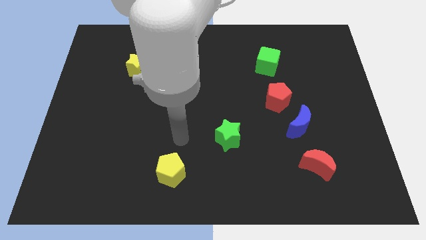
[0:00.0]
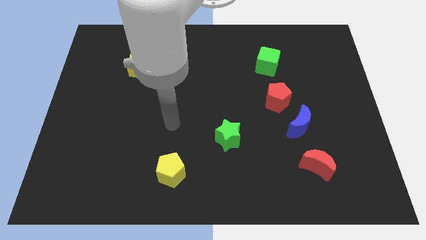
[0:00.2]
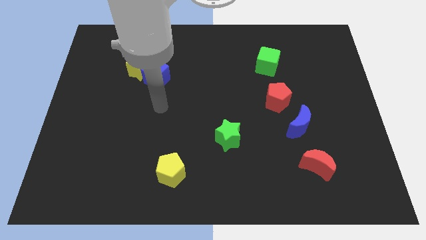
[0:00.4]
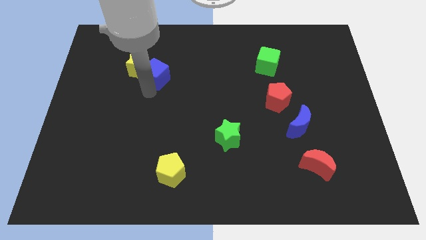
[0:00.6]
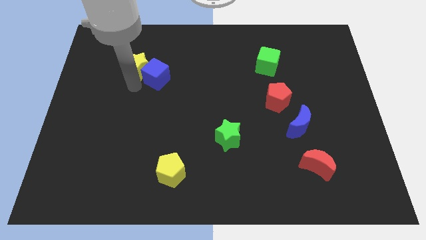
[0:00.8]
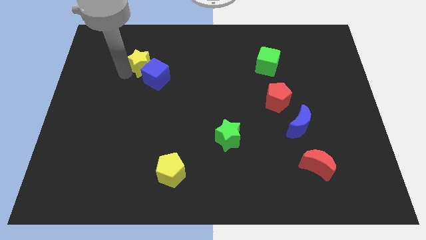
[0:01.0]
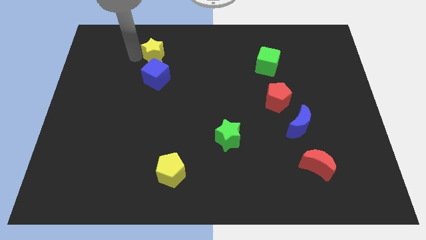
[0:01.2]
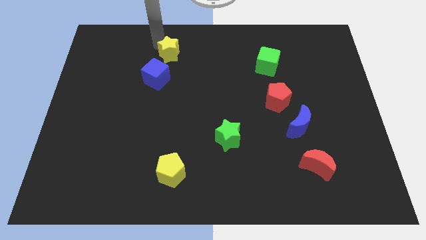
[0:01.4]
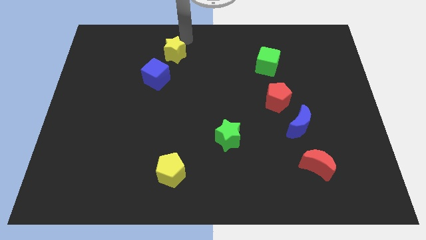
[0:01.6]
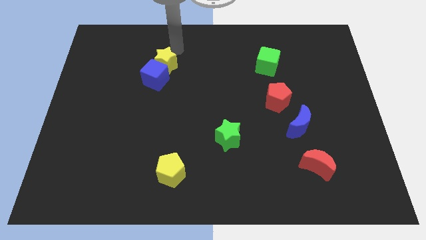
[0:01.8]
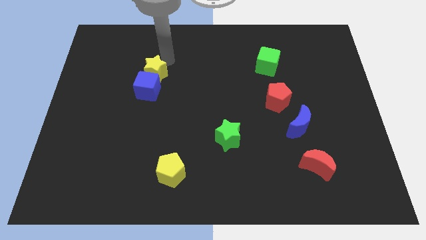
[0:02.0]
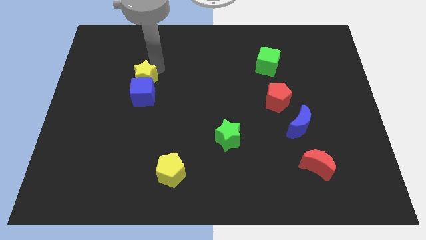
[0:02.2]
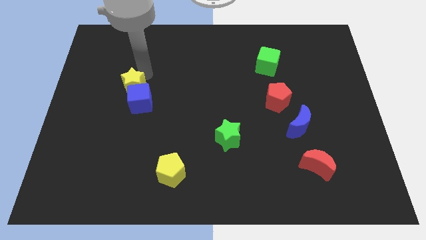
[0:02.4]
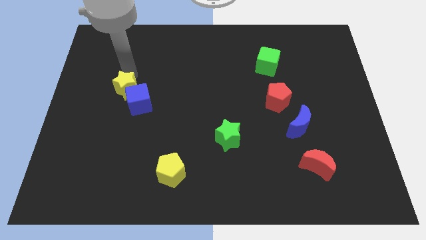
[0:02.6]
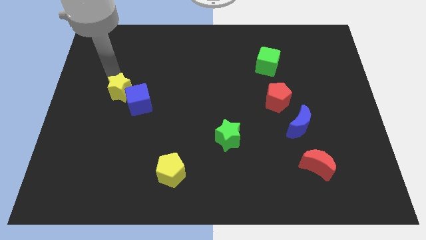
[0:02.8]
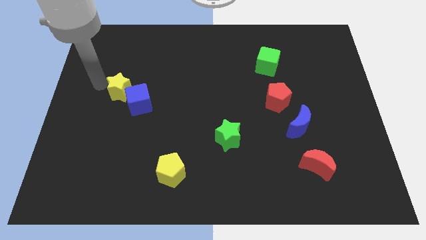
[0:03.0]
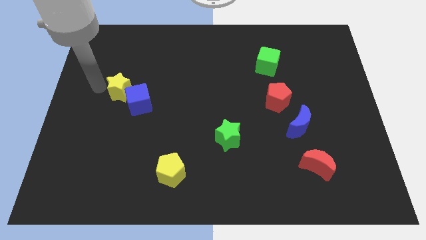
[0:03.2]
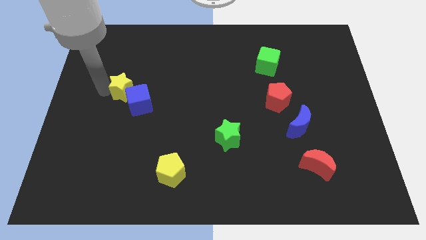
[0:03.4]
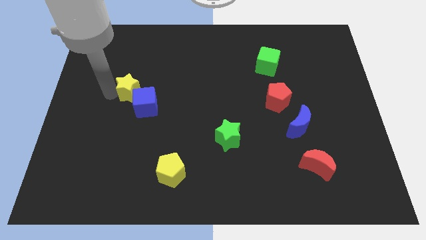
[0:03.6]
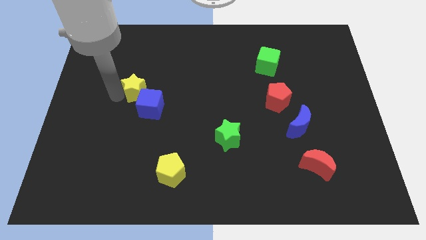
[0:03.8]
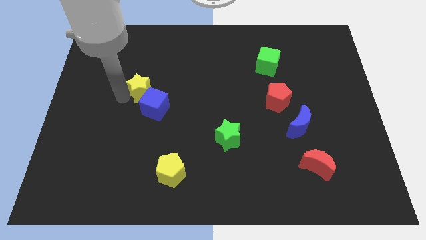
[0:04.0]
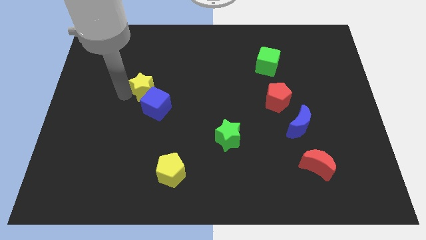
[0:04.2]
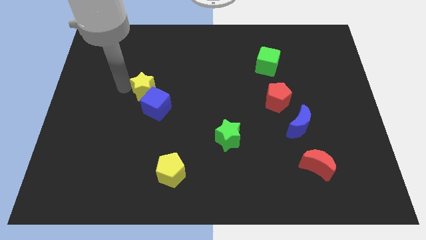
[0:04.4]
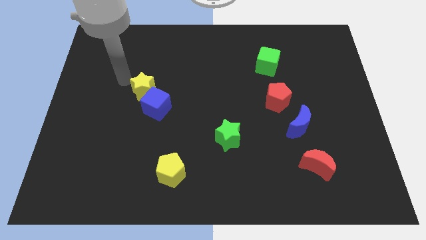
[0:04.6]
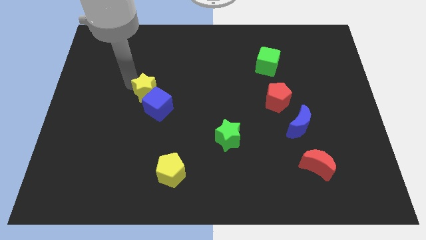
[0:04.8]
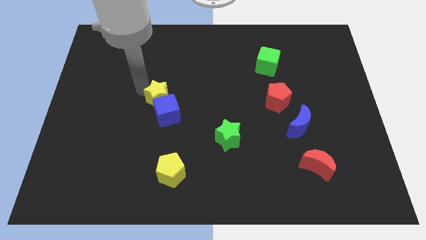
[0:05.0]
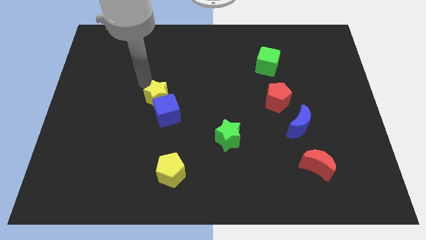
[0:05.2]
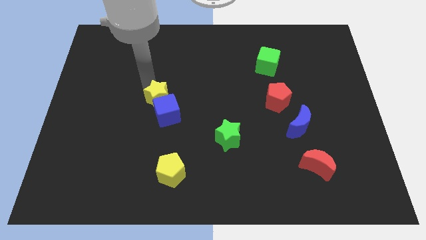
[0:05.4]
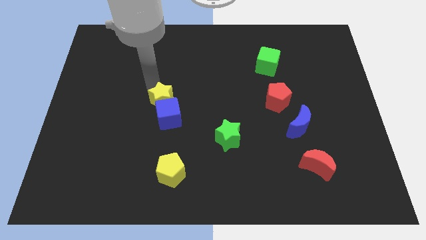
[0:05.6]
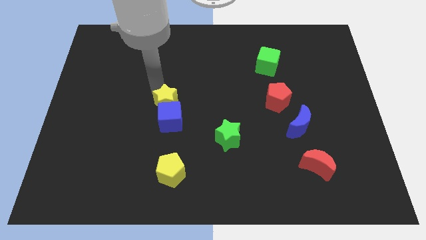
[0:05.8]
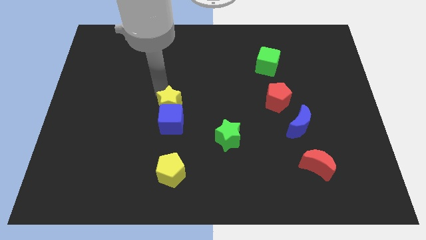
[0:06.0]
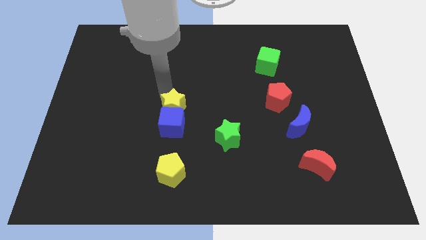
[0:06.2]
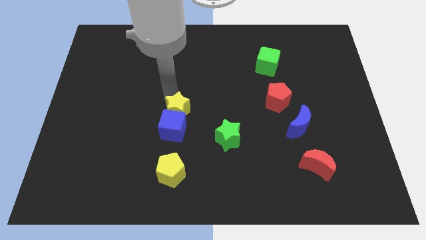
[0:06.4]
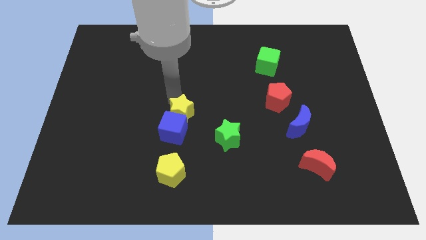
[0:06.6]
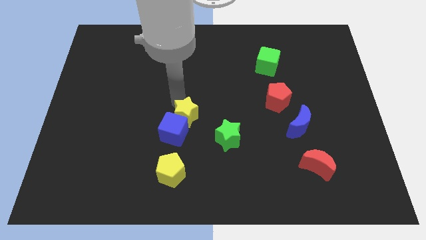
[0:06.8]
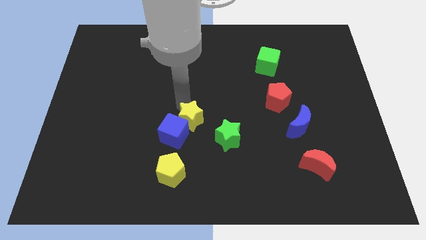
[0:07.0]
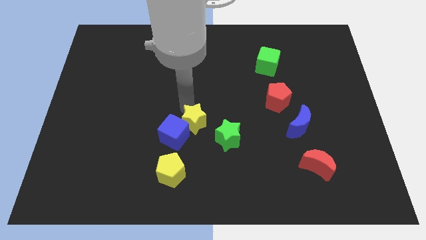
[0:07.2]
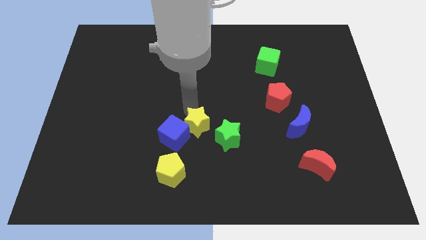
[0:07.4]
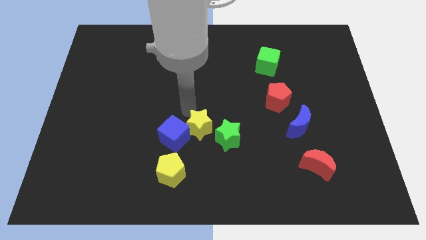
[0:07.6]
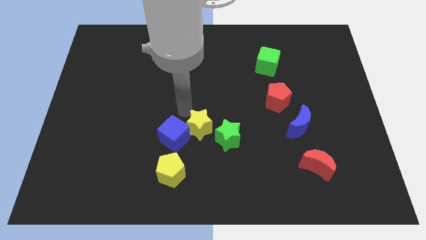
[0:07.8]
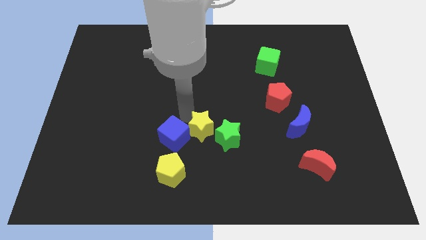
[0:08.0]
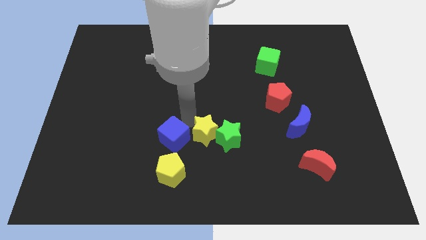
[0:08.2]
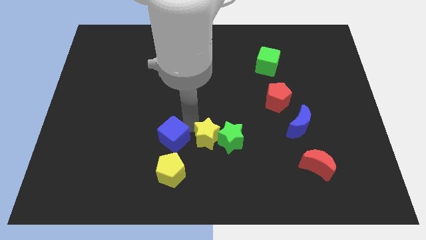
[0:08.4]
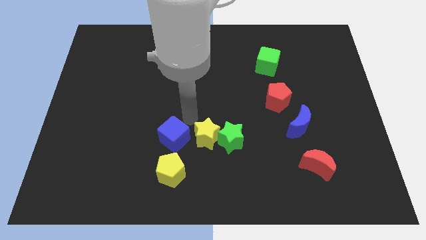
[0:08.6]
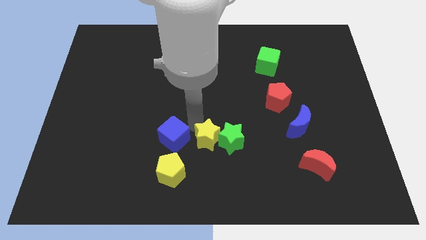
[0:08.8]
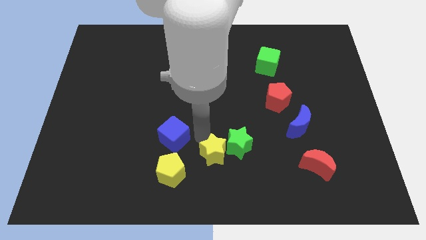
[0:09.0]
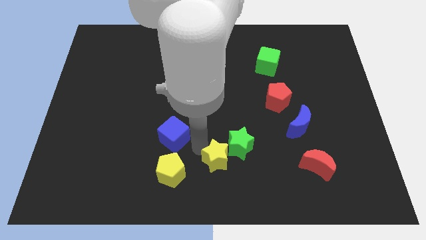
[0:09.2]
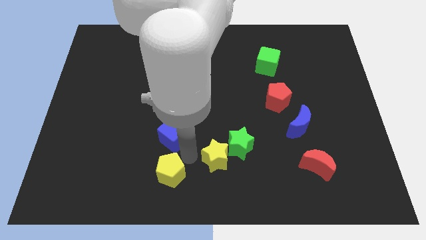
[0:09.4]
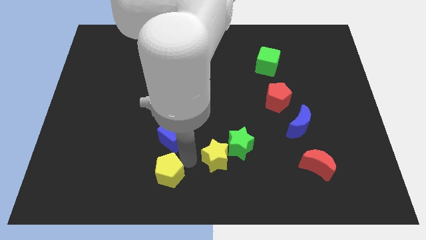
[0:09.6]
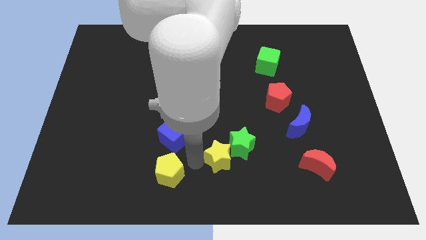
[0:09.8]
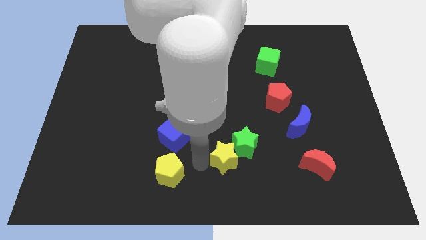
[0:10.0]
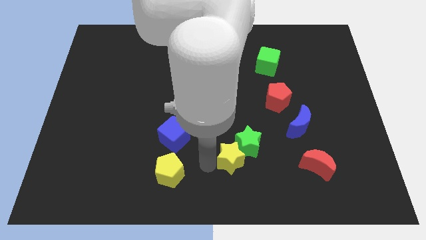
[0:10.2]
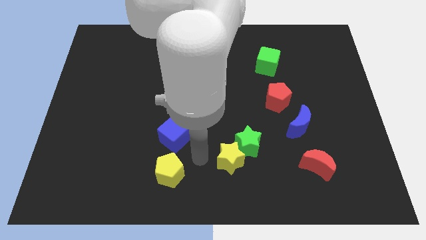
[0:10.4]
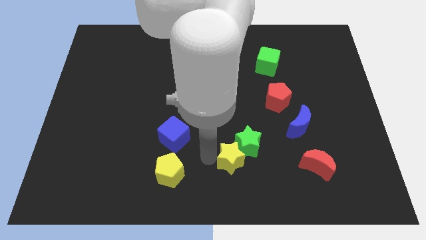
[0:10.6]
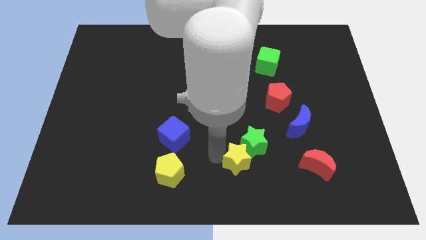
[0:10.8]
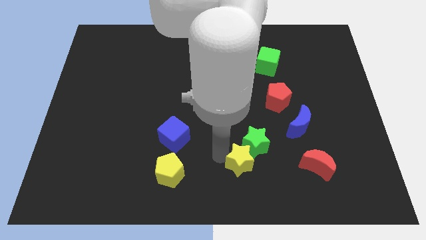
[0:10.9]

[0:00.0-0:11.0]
slide the yellow star to the left side of the red moon

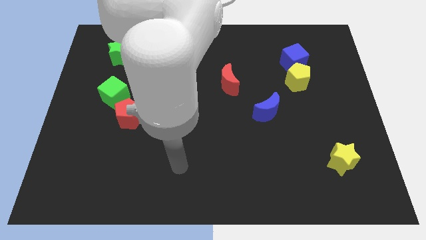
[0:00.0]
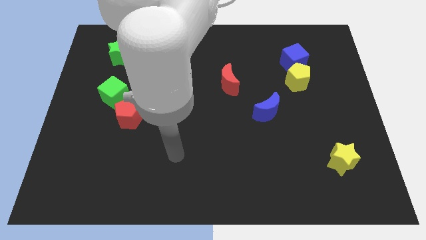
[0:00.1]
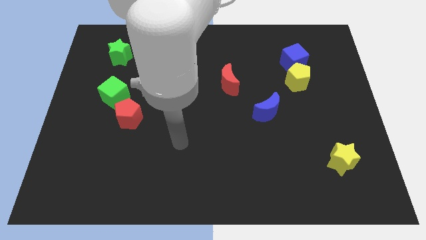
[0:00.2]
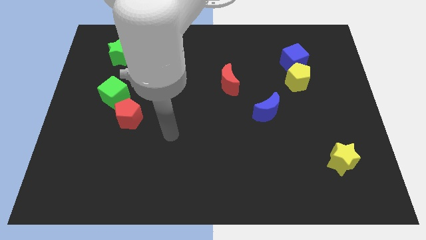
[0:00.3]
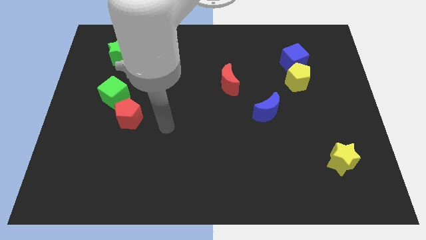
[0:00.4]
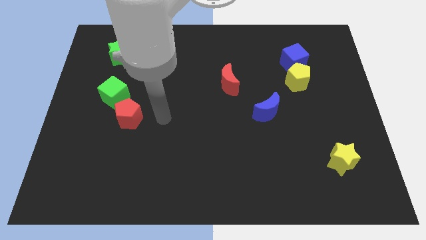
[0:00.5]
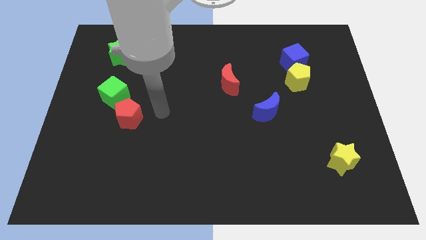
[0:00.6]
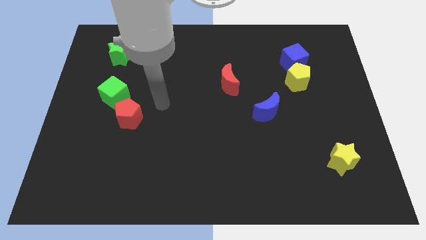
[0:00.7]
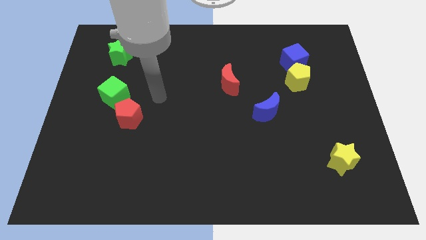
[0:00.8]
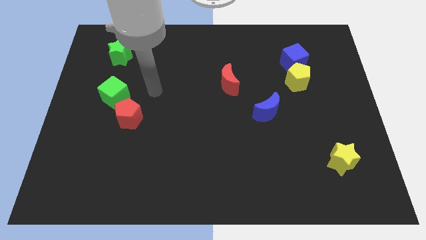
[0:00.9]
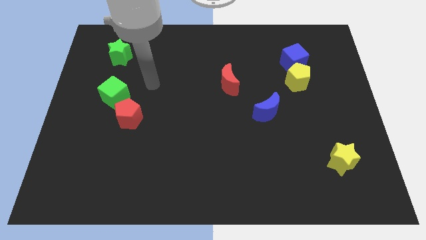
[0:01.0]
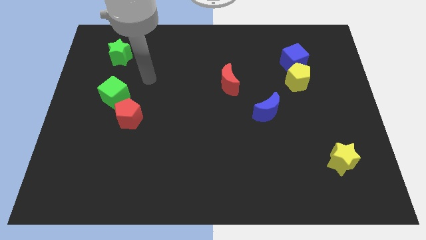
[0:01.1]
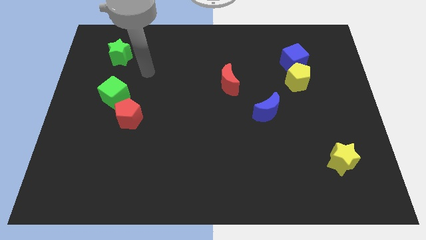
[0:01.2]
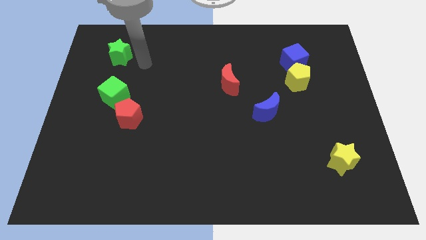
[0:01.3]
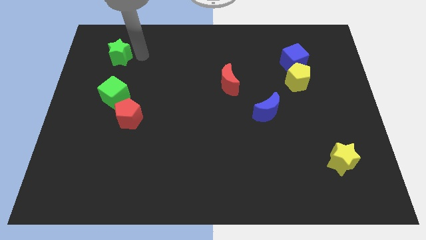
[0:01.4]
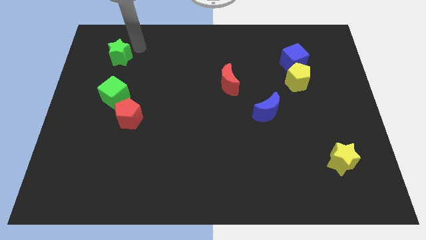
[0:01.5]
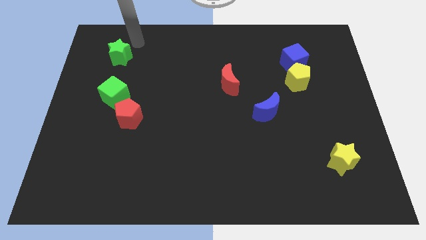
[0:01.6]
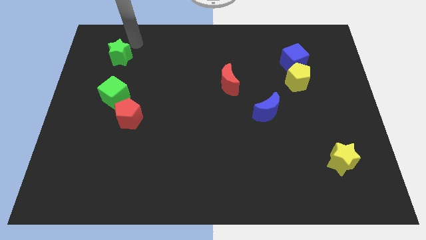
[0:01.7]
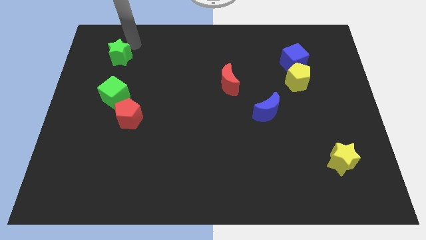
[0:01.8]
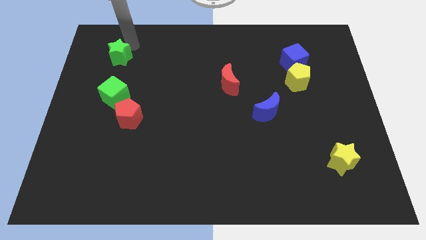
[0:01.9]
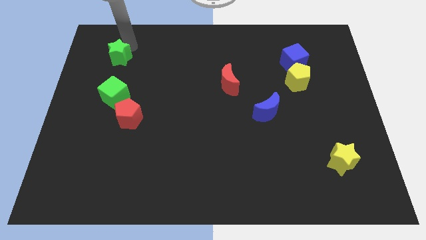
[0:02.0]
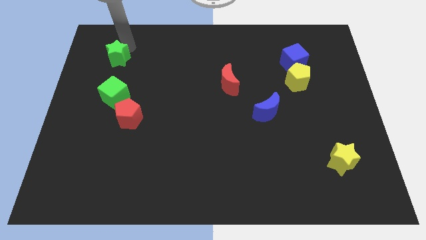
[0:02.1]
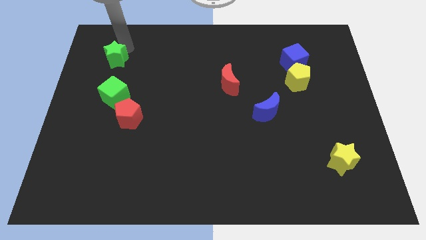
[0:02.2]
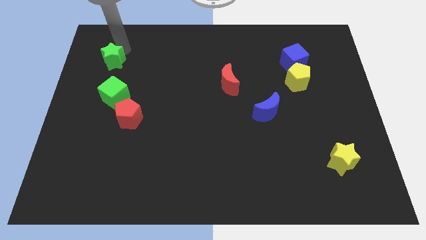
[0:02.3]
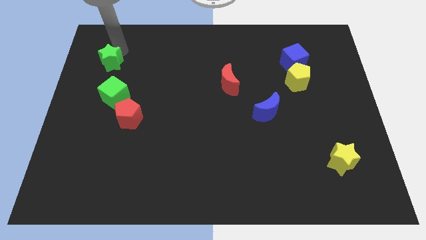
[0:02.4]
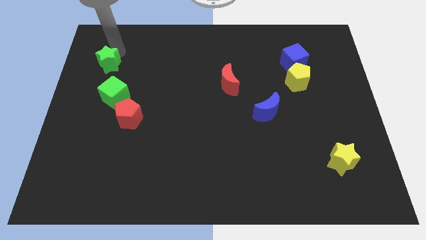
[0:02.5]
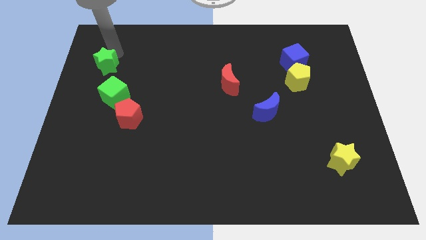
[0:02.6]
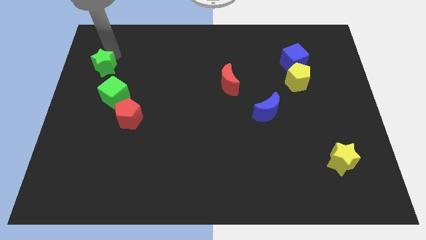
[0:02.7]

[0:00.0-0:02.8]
put the green star to the top left side of the green cube
